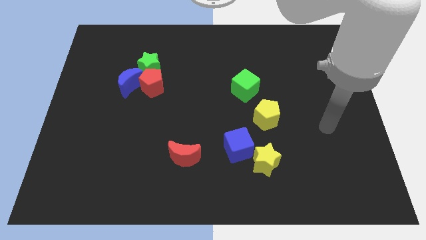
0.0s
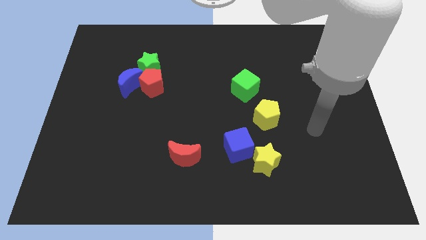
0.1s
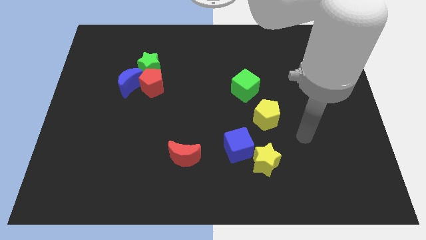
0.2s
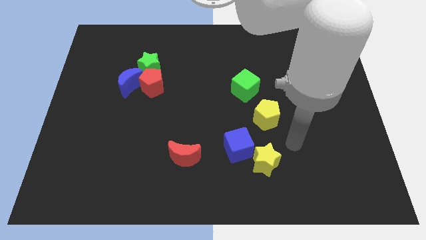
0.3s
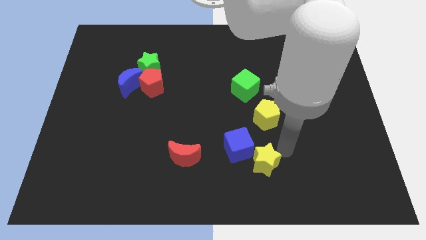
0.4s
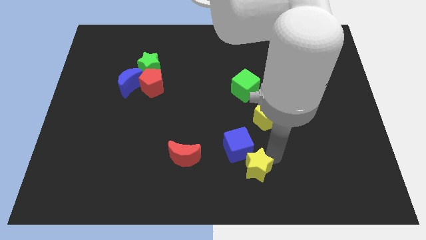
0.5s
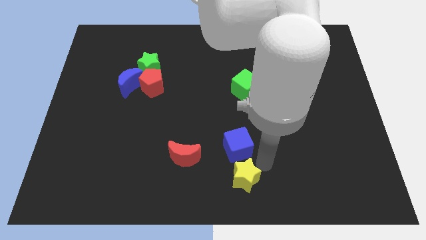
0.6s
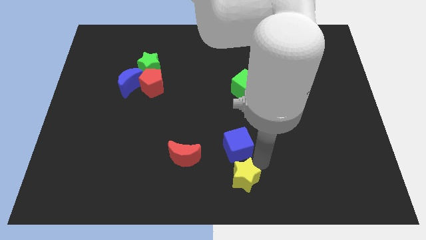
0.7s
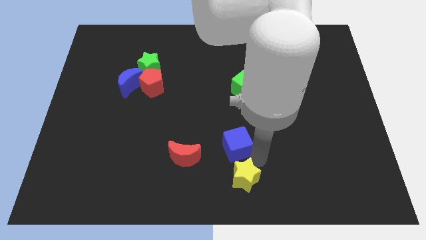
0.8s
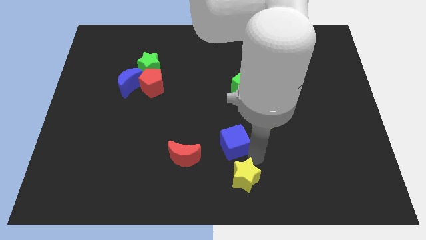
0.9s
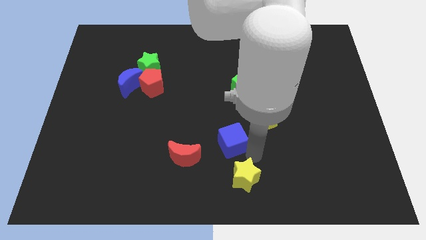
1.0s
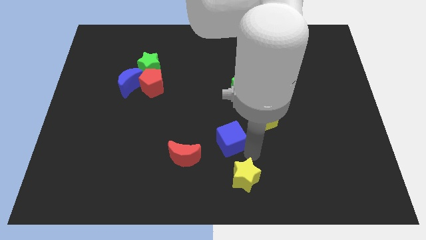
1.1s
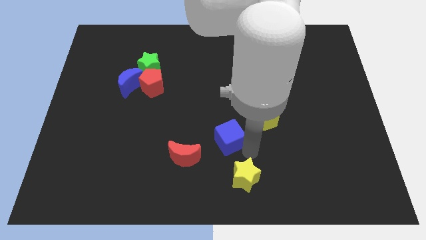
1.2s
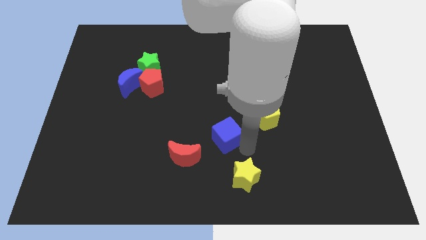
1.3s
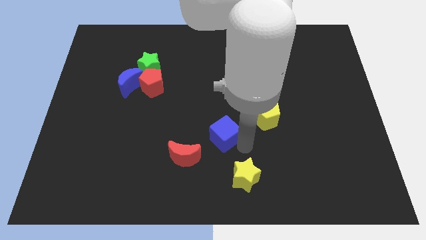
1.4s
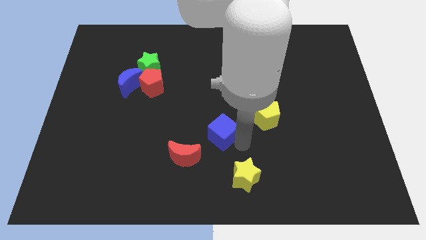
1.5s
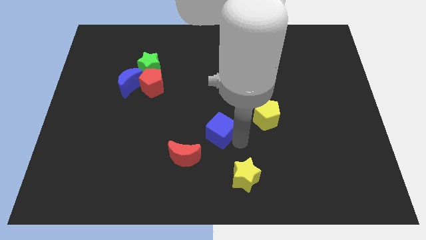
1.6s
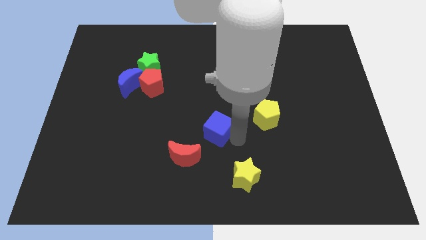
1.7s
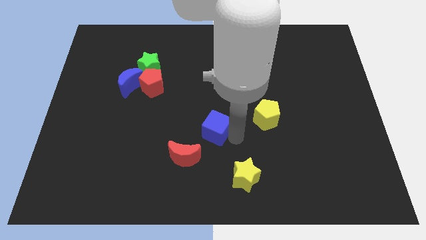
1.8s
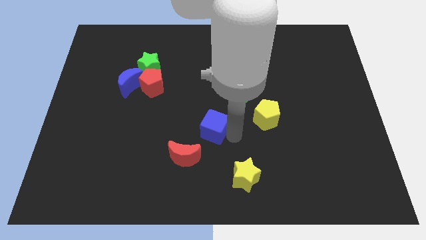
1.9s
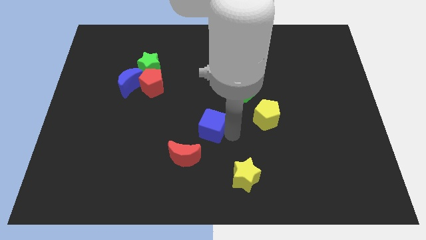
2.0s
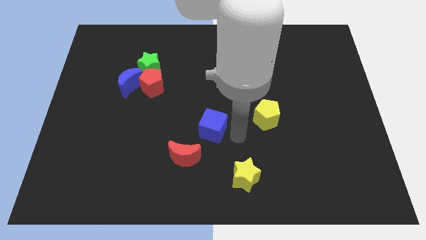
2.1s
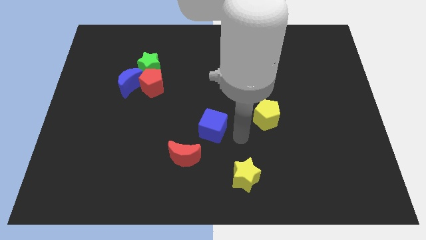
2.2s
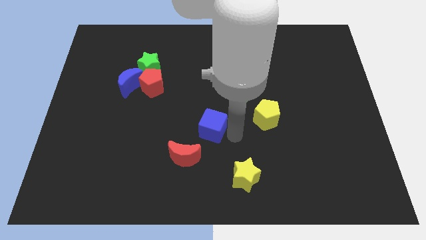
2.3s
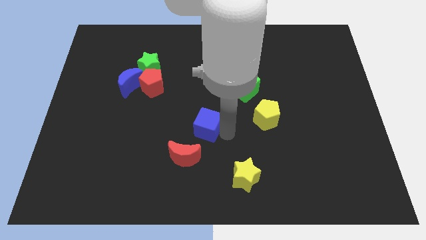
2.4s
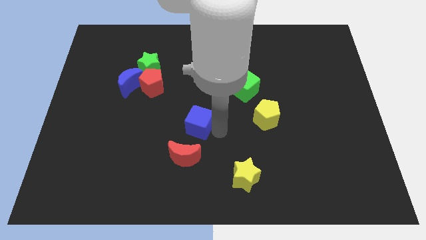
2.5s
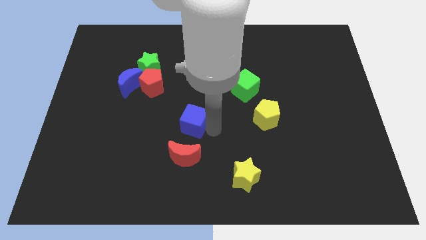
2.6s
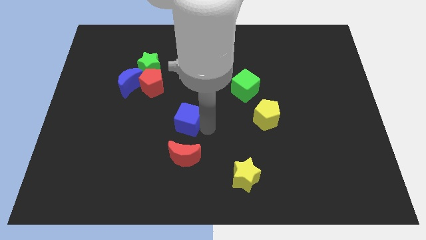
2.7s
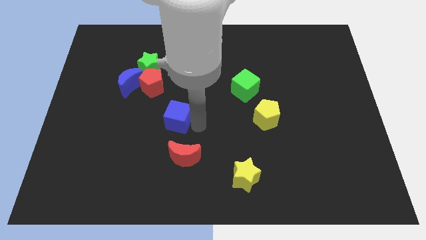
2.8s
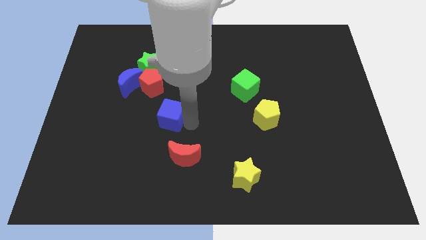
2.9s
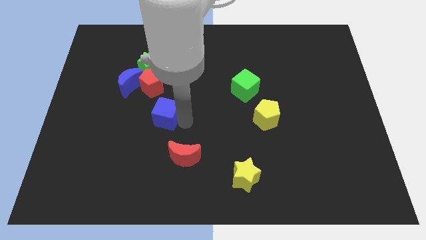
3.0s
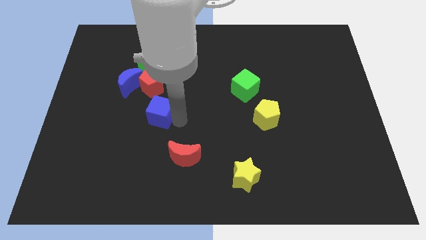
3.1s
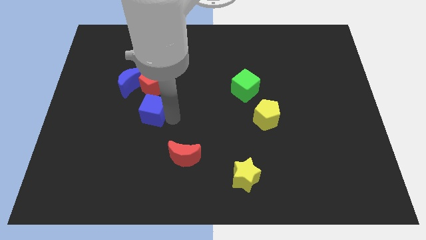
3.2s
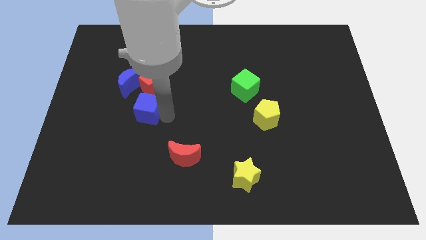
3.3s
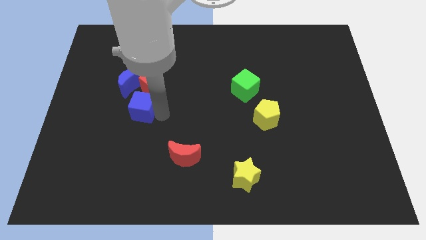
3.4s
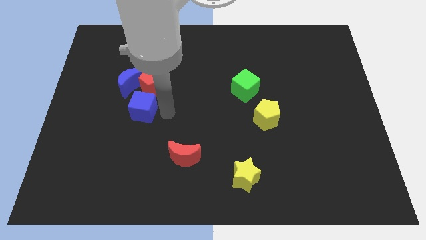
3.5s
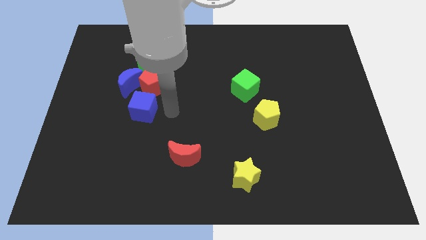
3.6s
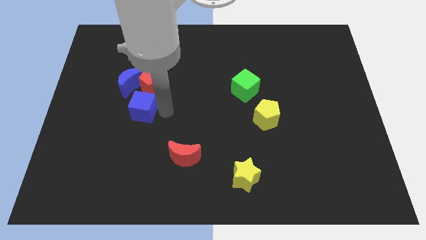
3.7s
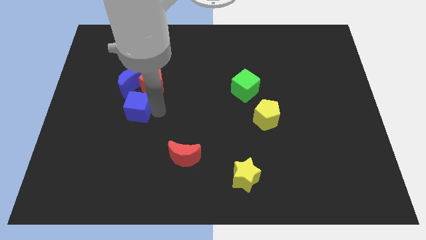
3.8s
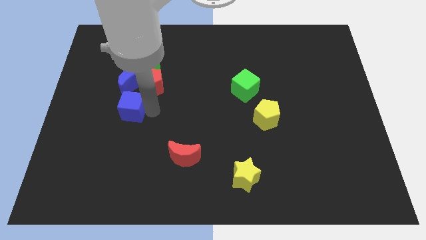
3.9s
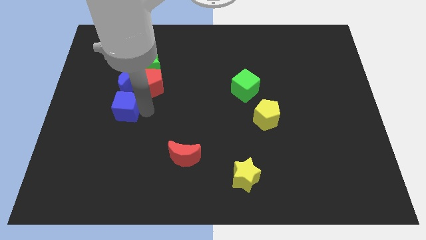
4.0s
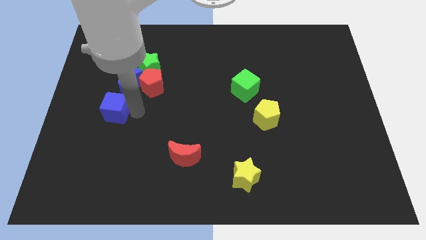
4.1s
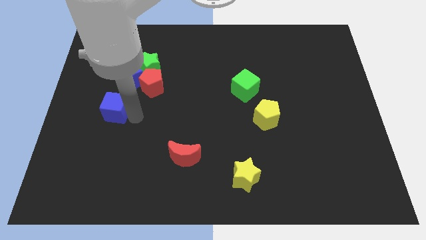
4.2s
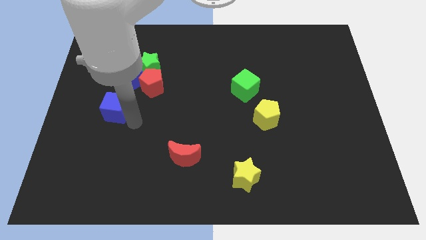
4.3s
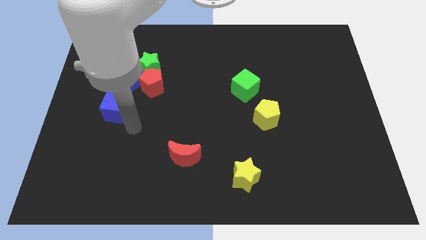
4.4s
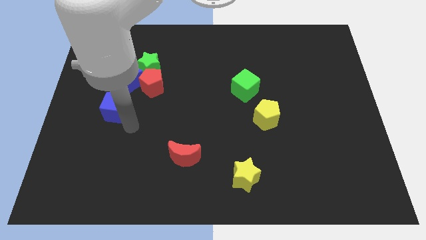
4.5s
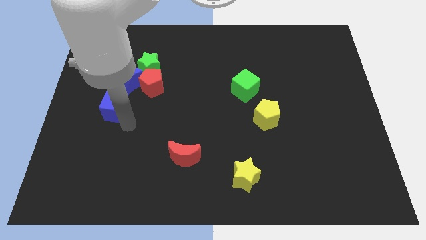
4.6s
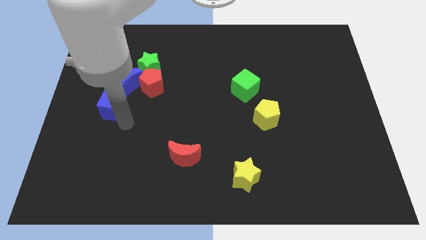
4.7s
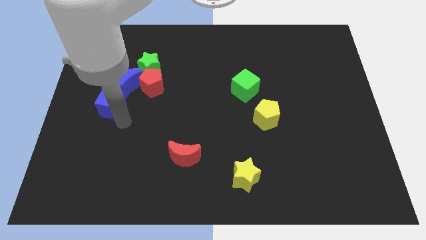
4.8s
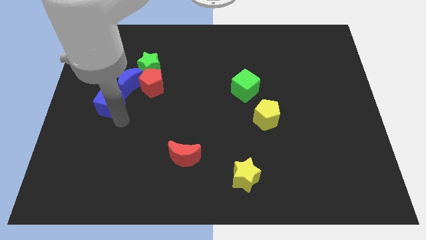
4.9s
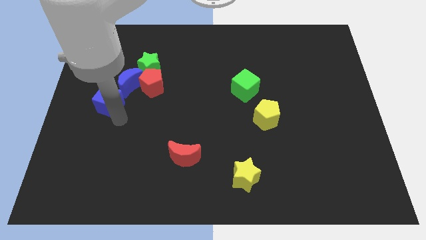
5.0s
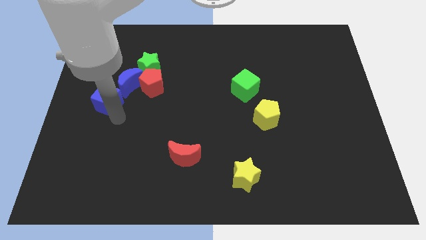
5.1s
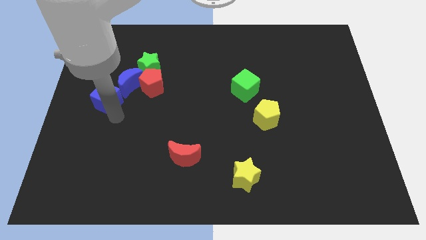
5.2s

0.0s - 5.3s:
push the blue cube to the left of the red pentagon

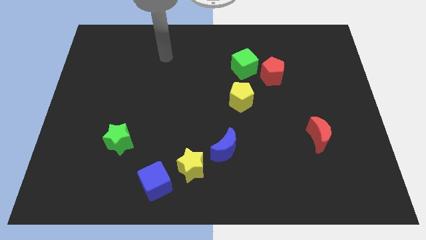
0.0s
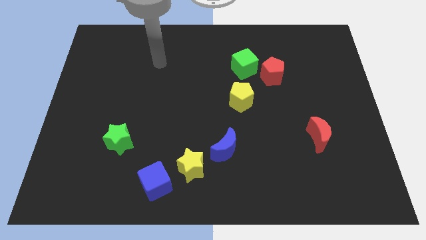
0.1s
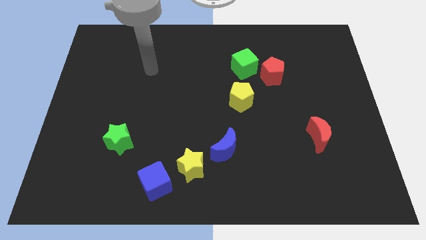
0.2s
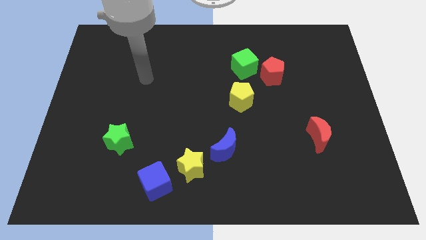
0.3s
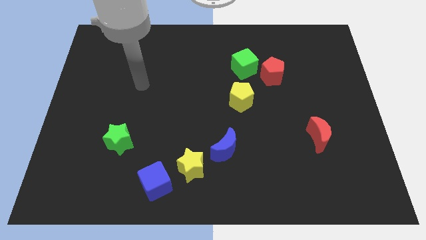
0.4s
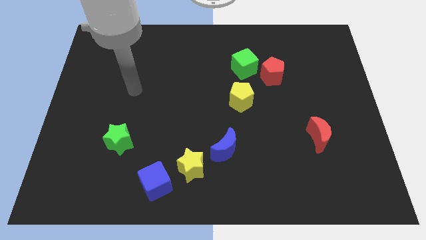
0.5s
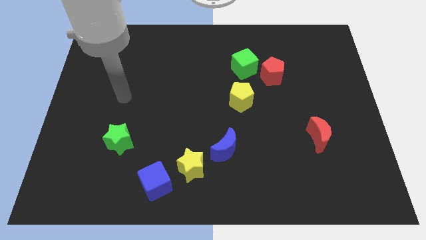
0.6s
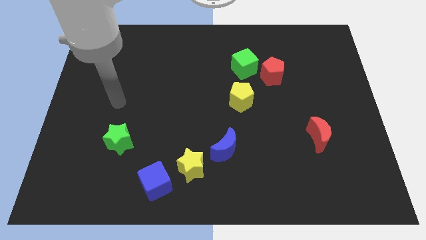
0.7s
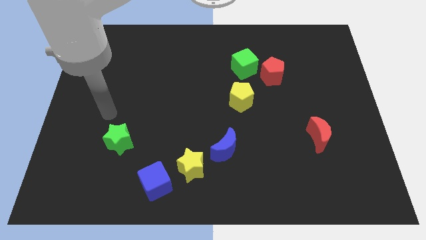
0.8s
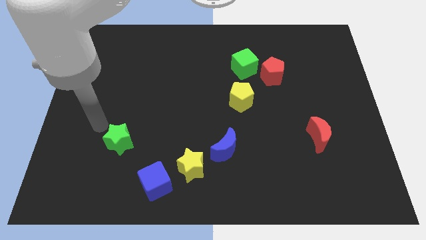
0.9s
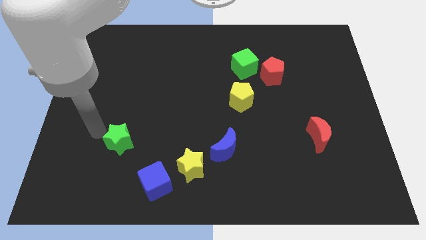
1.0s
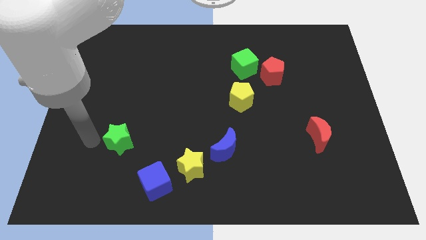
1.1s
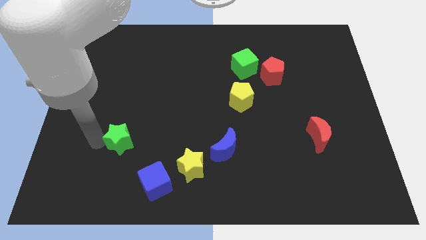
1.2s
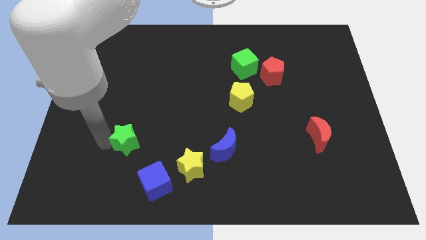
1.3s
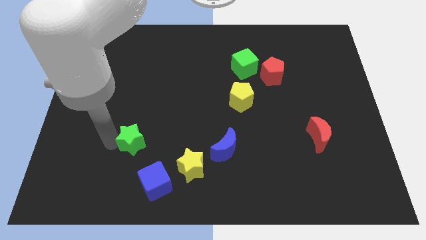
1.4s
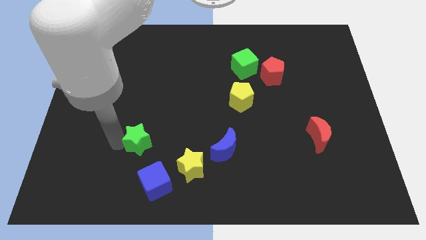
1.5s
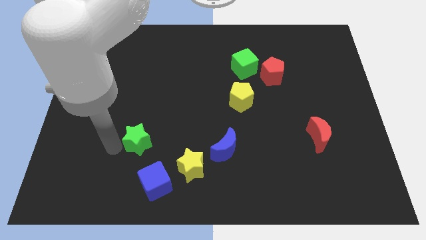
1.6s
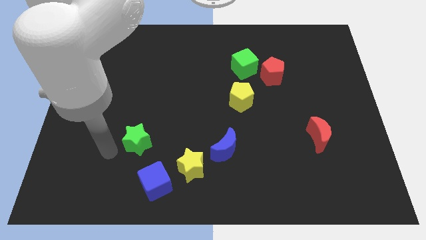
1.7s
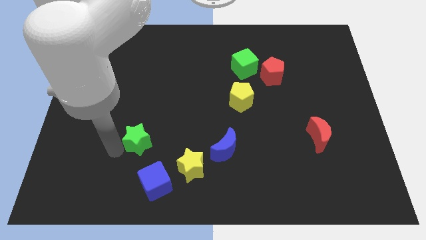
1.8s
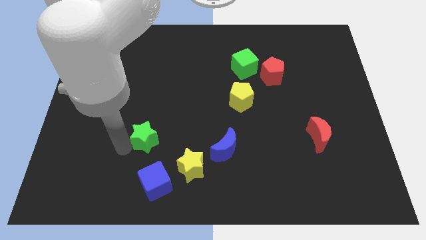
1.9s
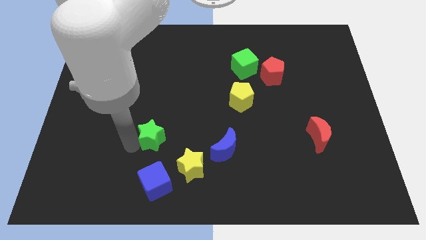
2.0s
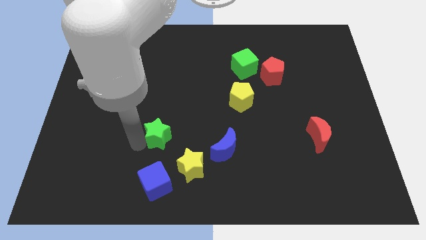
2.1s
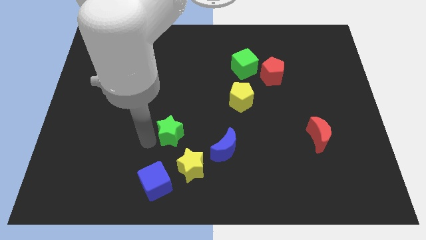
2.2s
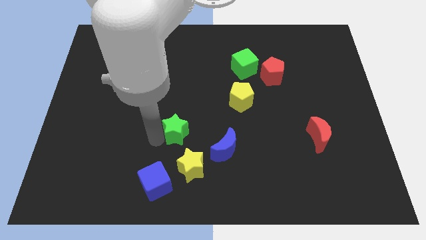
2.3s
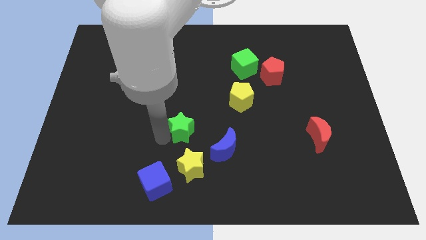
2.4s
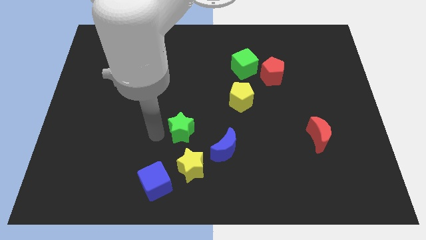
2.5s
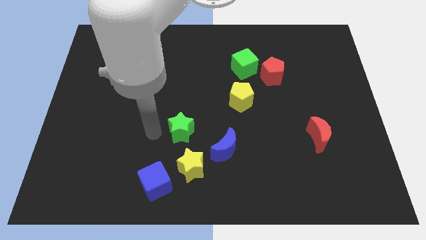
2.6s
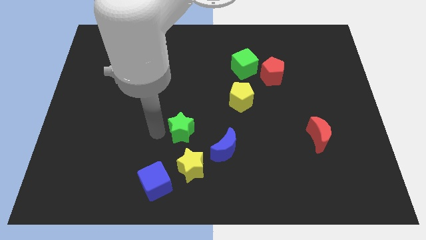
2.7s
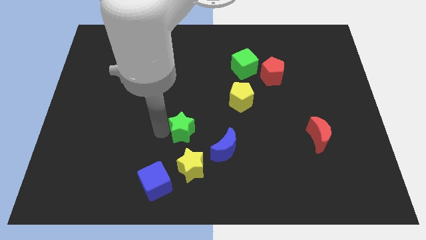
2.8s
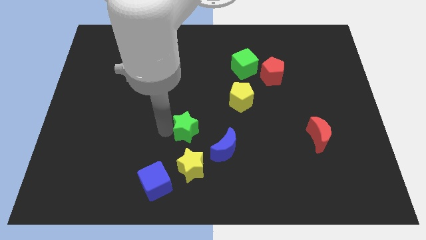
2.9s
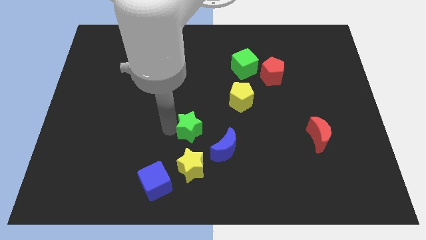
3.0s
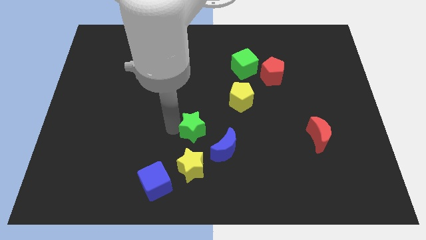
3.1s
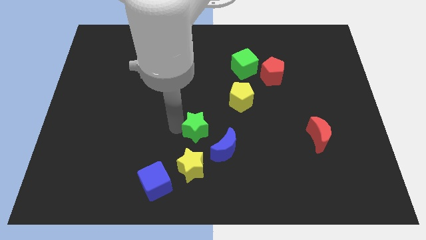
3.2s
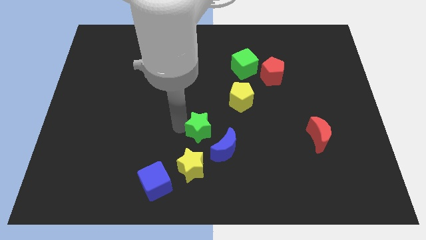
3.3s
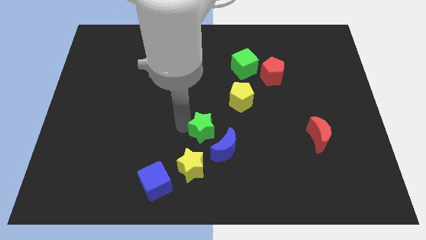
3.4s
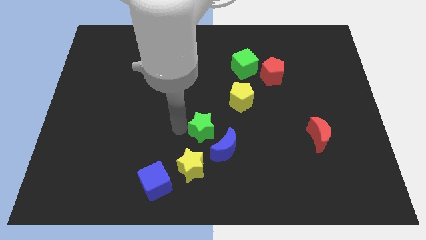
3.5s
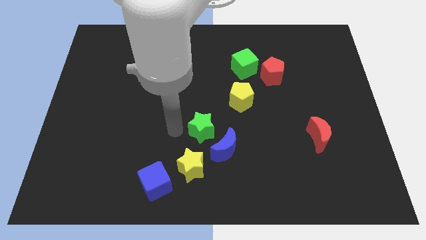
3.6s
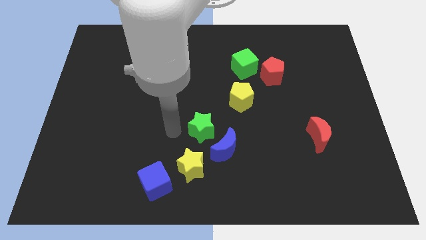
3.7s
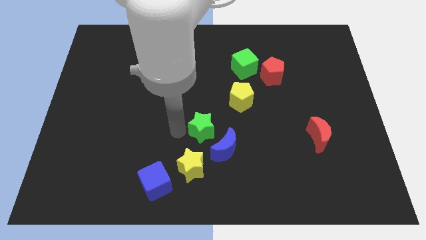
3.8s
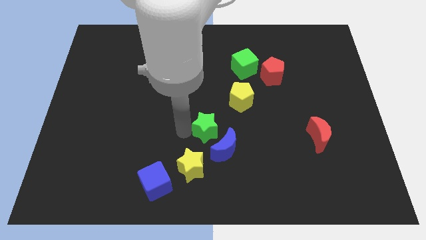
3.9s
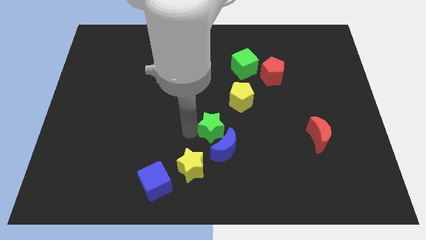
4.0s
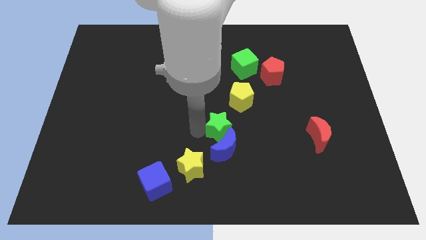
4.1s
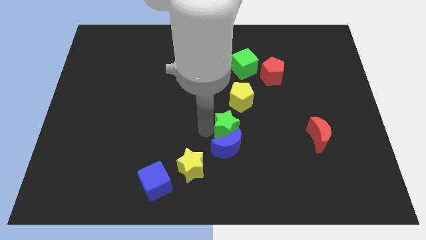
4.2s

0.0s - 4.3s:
move the green star to the bottom side of the yellow pentagon
